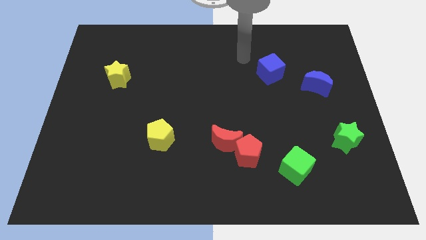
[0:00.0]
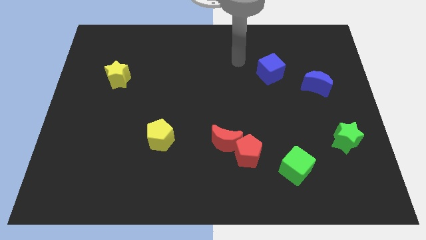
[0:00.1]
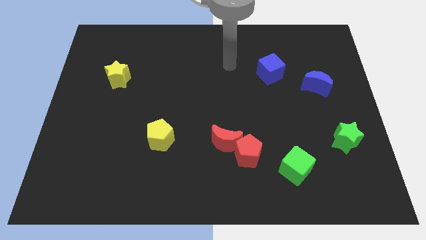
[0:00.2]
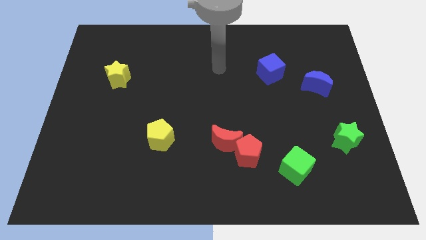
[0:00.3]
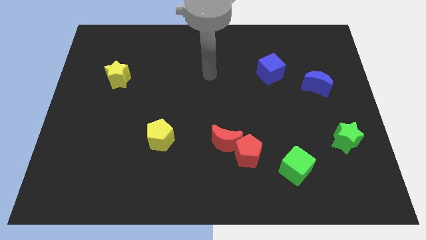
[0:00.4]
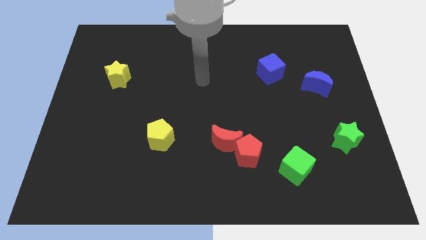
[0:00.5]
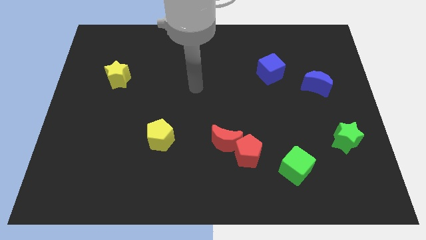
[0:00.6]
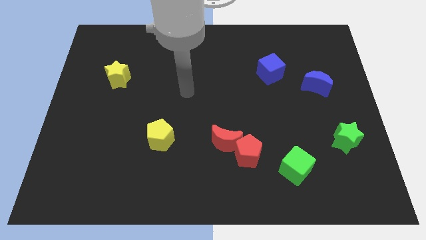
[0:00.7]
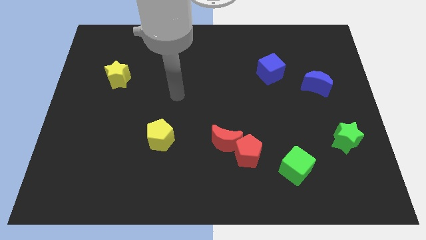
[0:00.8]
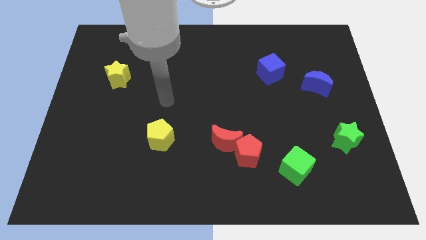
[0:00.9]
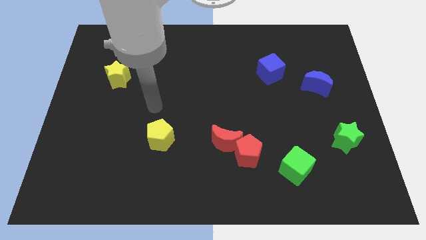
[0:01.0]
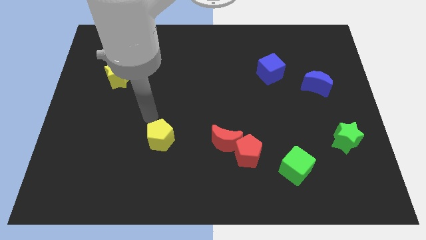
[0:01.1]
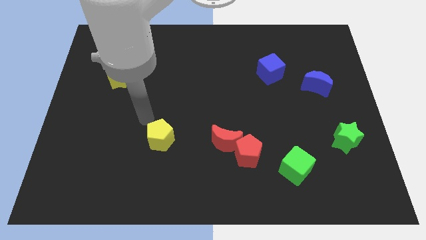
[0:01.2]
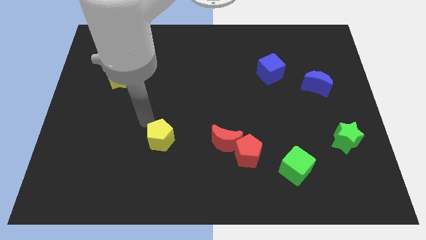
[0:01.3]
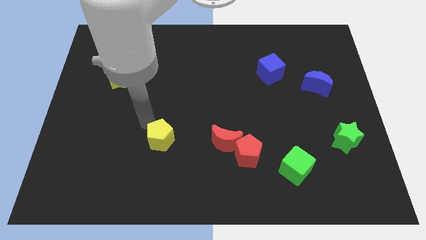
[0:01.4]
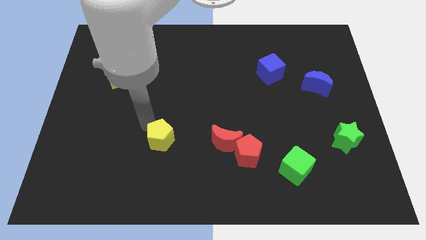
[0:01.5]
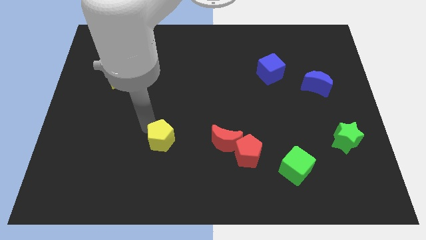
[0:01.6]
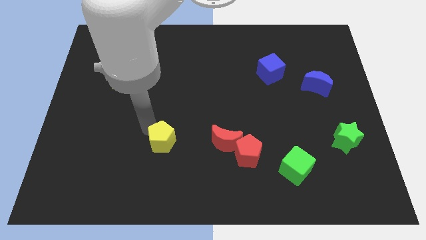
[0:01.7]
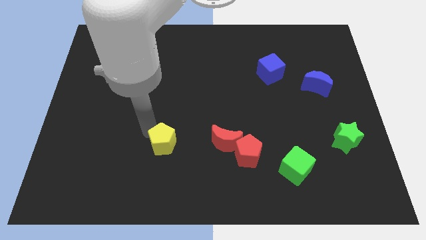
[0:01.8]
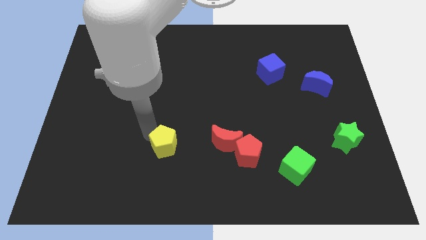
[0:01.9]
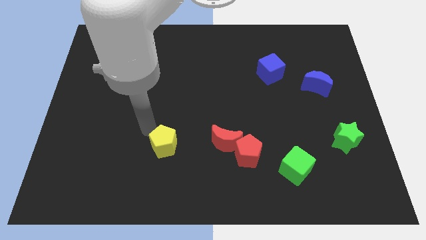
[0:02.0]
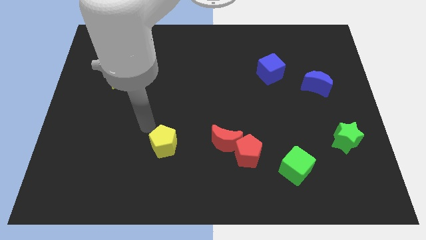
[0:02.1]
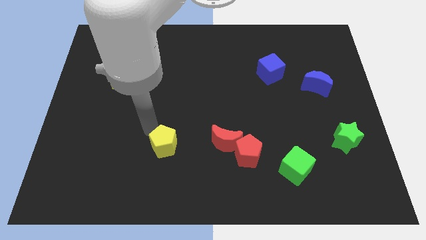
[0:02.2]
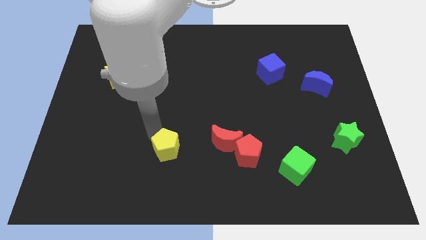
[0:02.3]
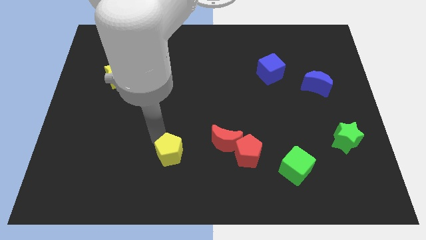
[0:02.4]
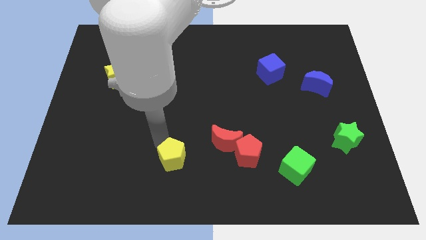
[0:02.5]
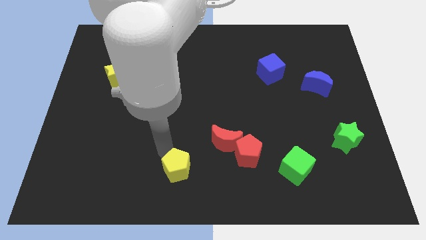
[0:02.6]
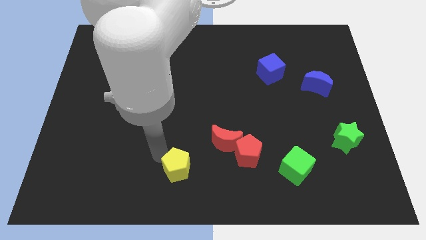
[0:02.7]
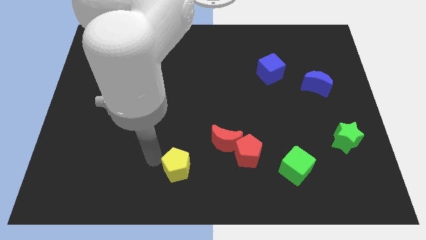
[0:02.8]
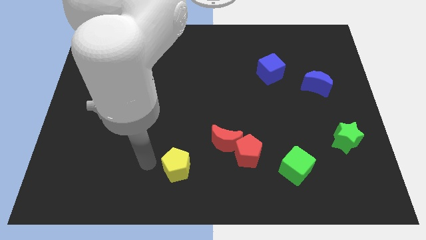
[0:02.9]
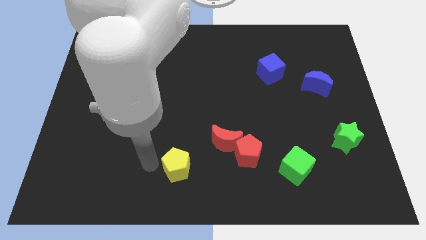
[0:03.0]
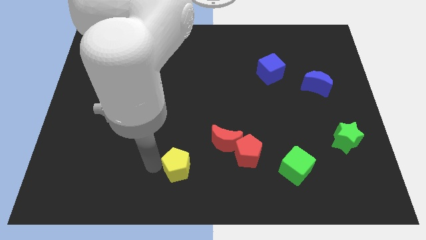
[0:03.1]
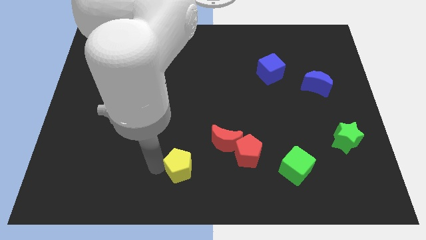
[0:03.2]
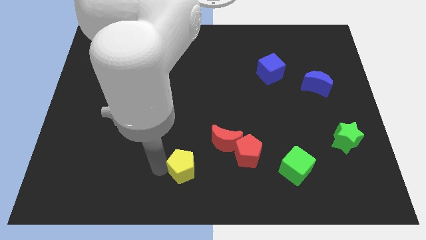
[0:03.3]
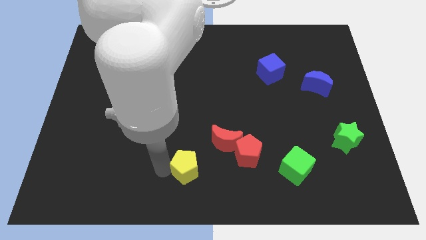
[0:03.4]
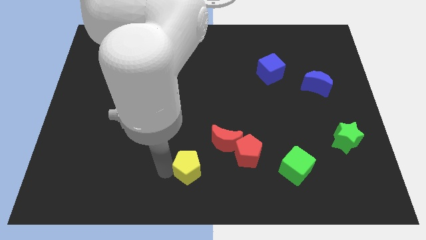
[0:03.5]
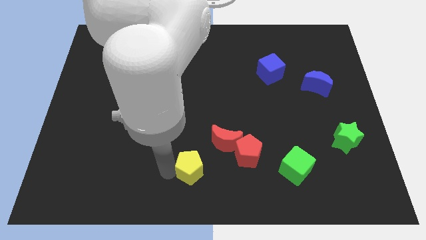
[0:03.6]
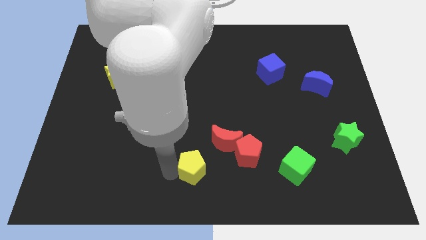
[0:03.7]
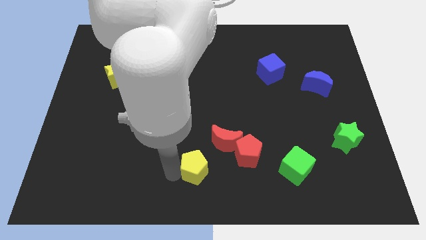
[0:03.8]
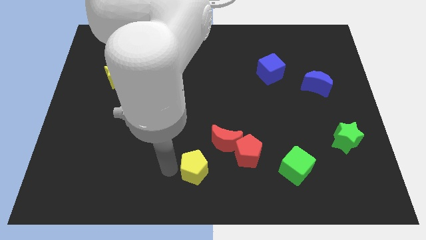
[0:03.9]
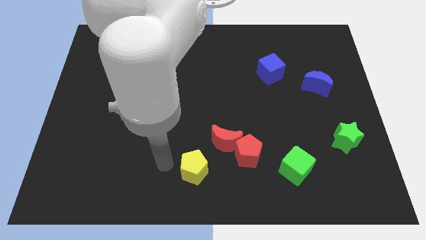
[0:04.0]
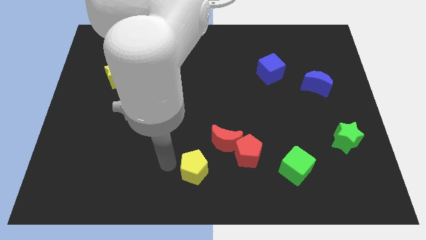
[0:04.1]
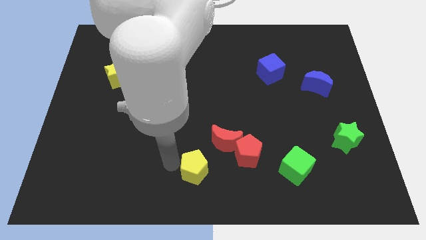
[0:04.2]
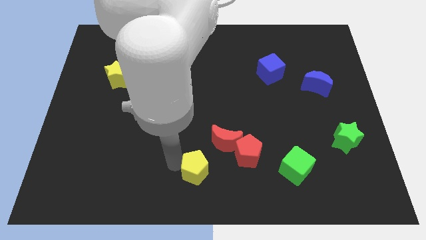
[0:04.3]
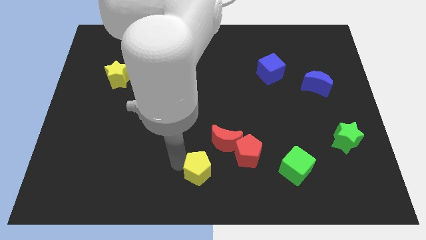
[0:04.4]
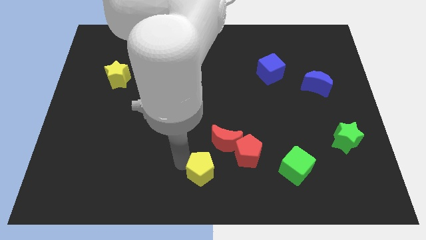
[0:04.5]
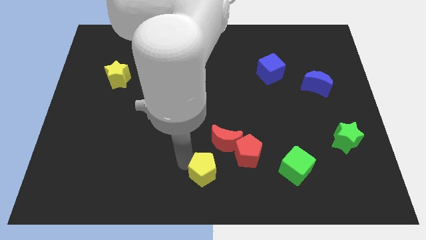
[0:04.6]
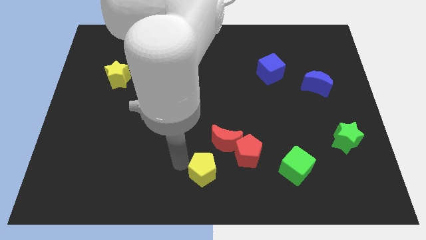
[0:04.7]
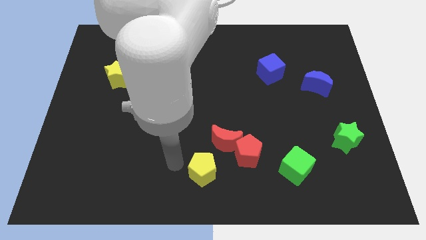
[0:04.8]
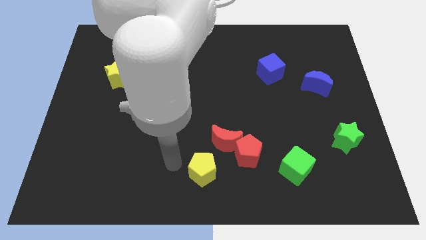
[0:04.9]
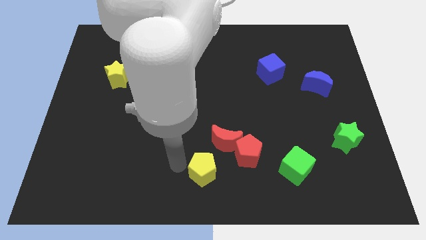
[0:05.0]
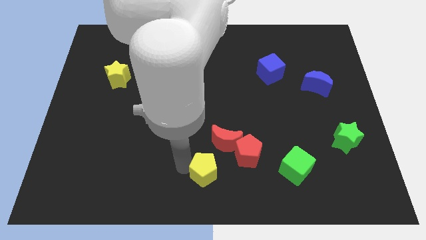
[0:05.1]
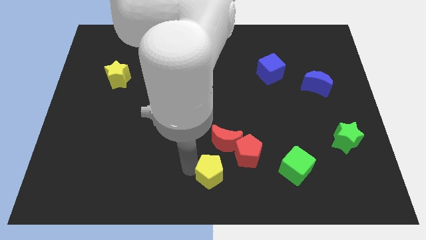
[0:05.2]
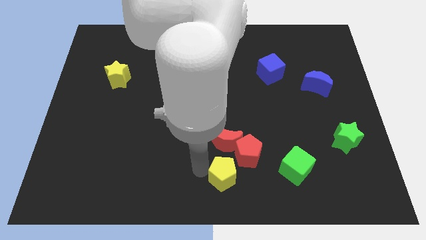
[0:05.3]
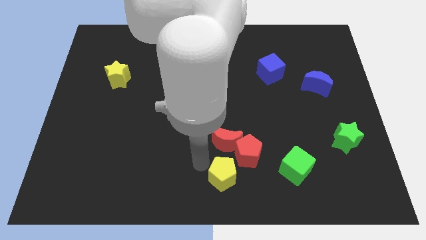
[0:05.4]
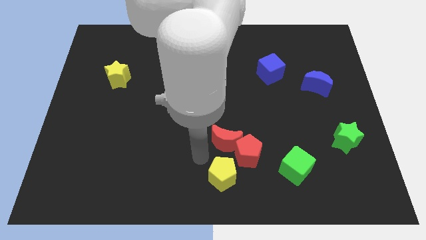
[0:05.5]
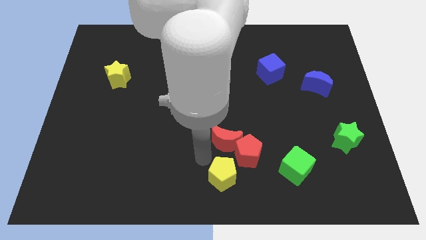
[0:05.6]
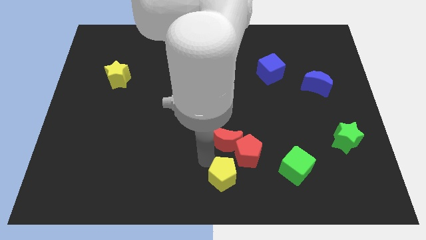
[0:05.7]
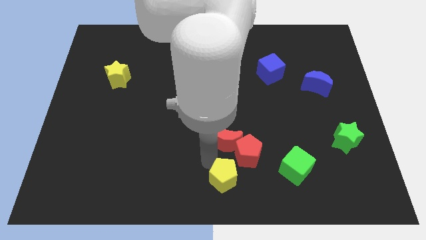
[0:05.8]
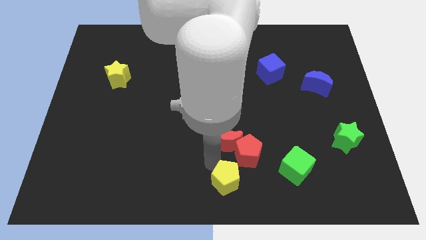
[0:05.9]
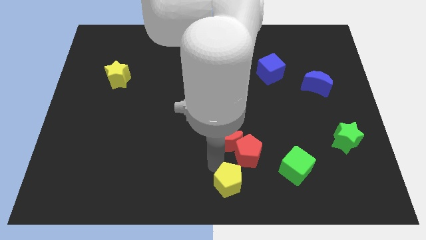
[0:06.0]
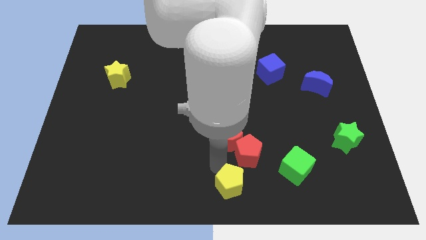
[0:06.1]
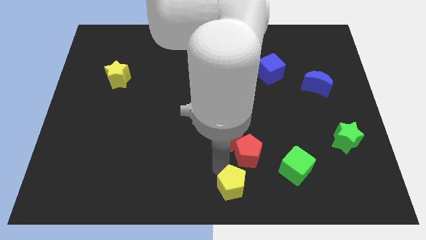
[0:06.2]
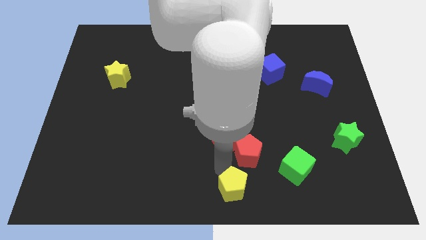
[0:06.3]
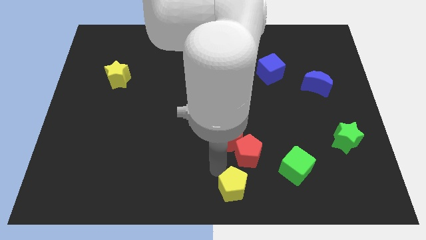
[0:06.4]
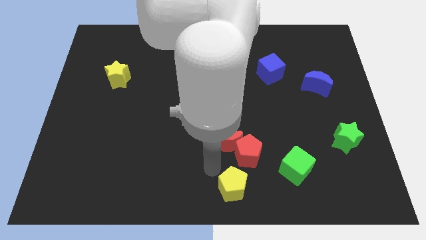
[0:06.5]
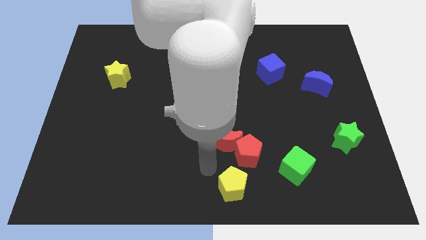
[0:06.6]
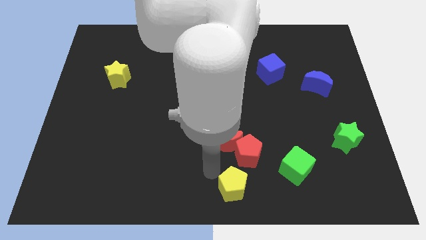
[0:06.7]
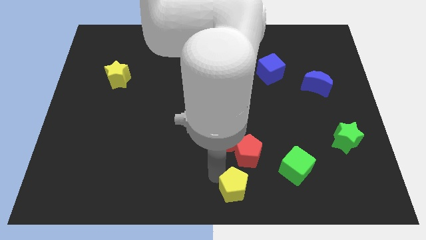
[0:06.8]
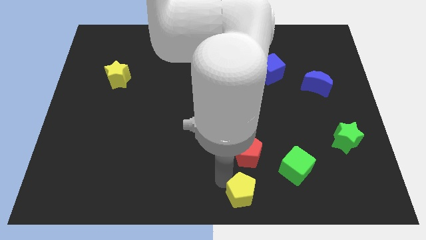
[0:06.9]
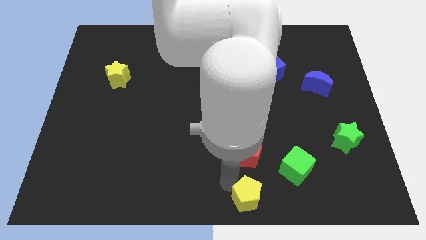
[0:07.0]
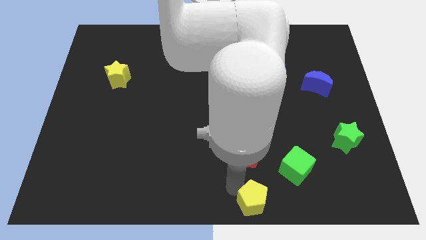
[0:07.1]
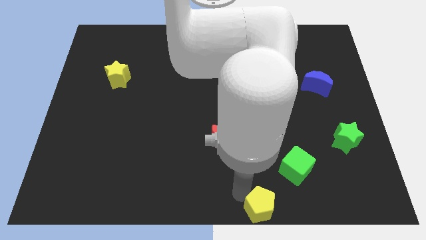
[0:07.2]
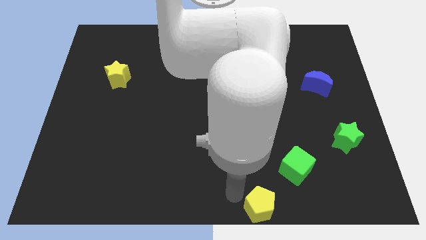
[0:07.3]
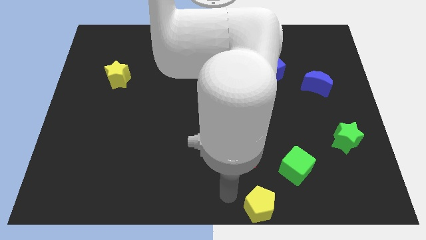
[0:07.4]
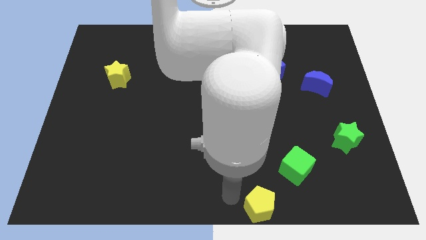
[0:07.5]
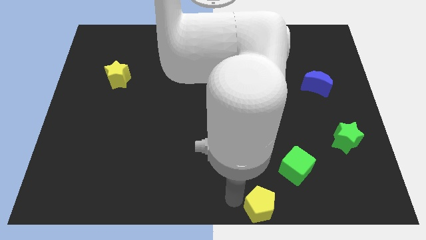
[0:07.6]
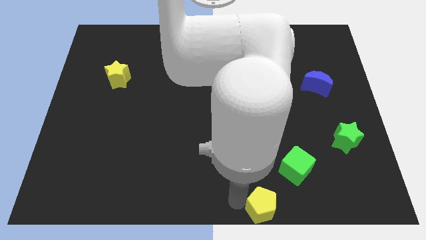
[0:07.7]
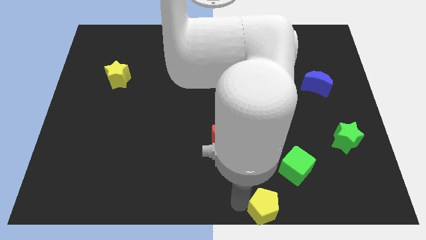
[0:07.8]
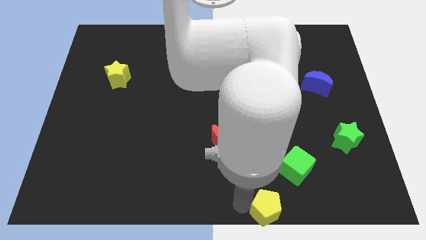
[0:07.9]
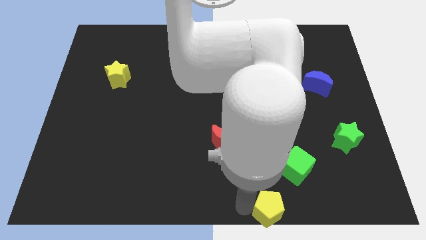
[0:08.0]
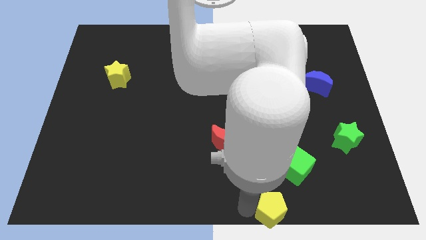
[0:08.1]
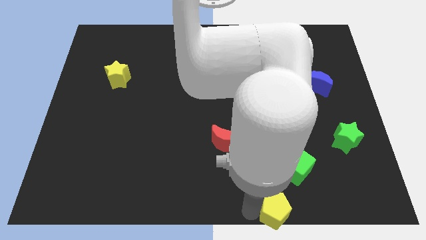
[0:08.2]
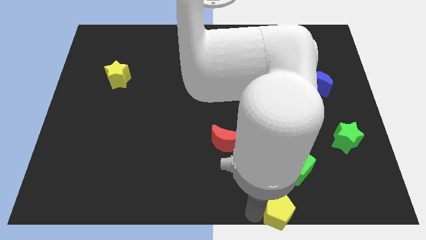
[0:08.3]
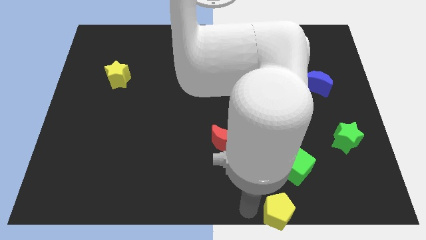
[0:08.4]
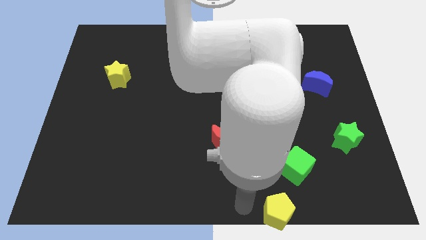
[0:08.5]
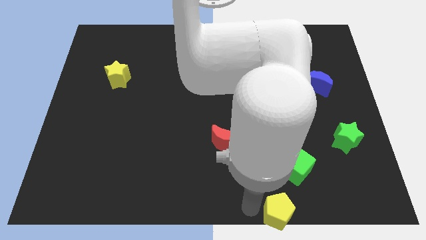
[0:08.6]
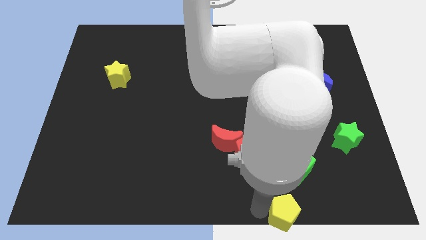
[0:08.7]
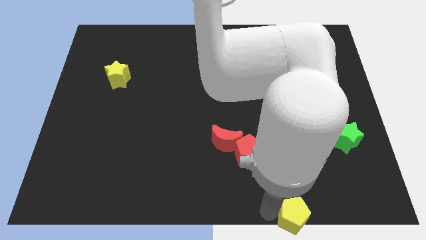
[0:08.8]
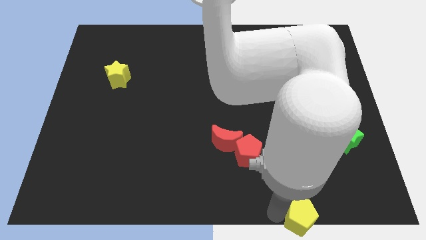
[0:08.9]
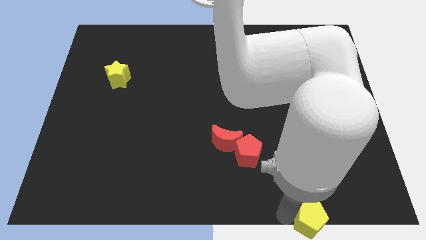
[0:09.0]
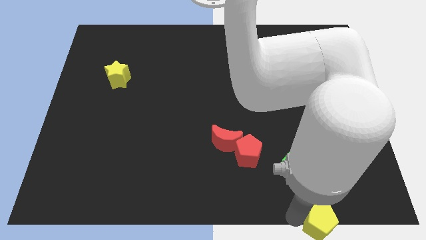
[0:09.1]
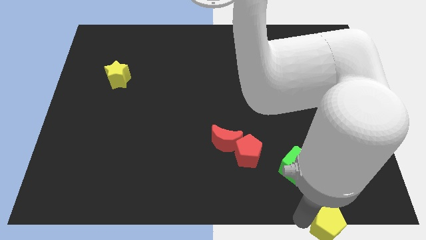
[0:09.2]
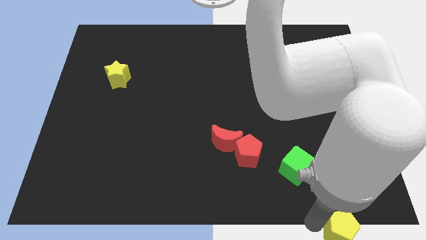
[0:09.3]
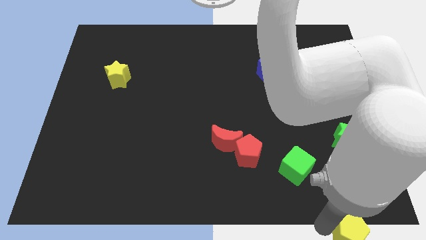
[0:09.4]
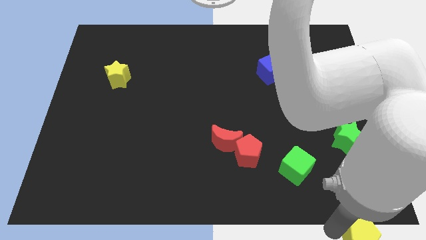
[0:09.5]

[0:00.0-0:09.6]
push the yellow pentagon to the lower right corner
